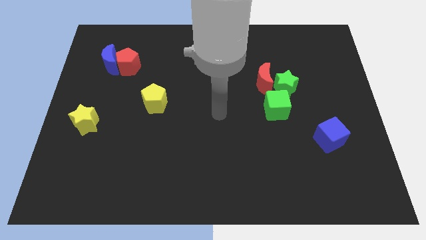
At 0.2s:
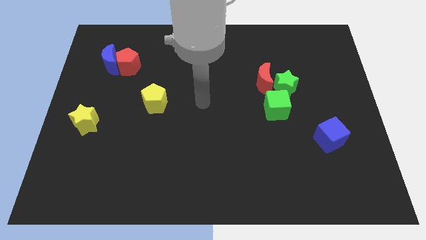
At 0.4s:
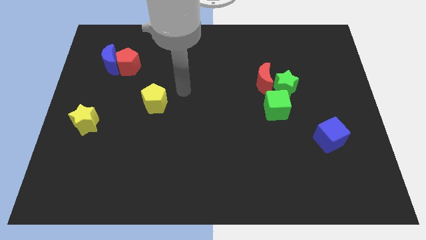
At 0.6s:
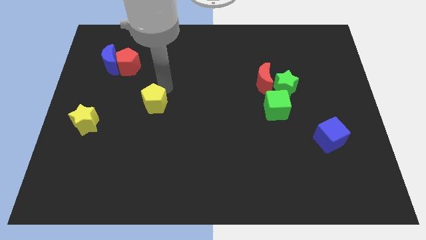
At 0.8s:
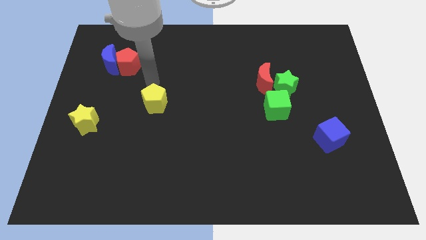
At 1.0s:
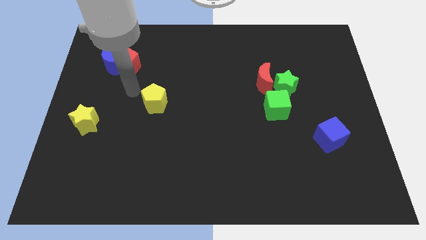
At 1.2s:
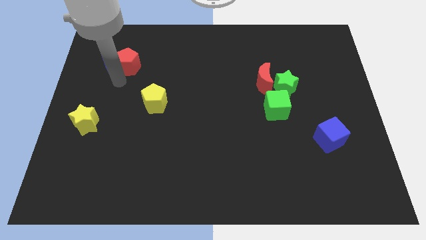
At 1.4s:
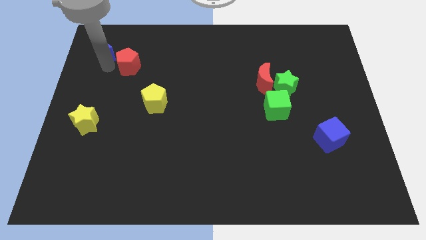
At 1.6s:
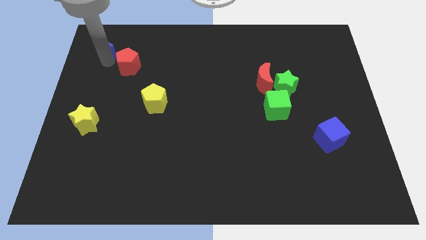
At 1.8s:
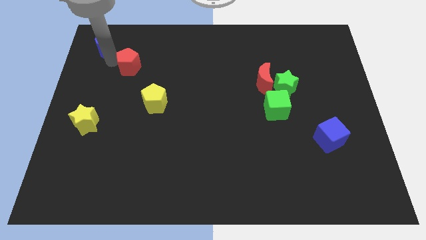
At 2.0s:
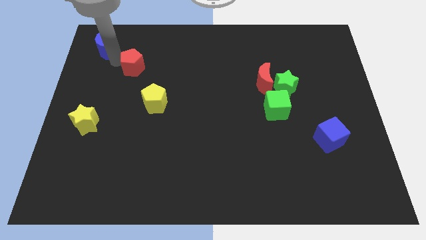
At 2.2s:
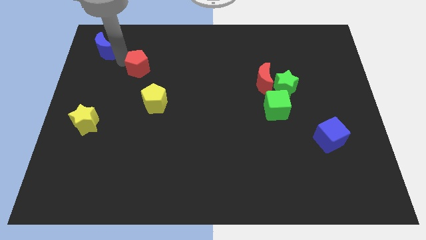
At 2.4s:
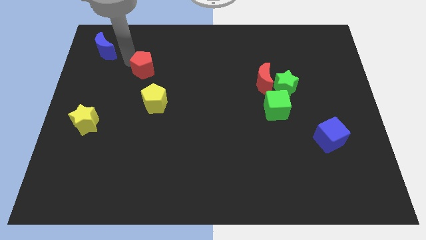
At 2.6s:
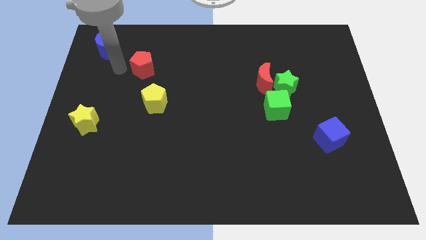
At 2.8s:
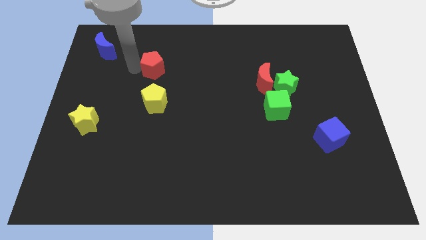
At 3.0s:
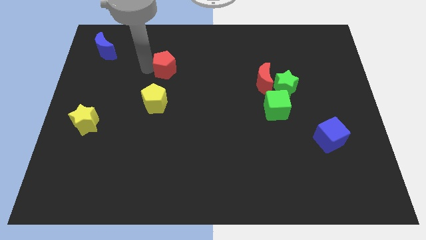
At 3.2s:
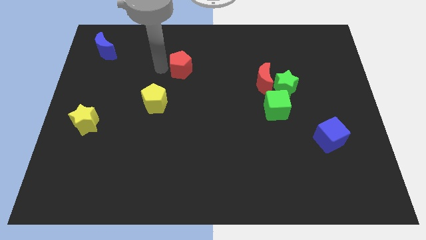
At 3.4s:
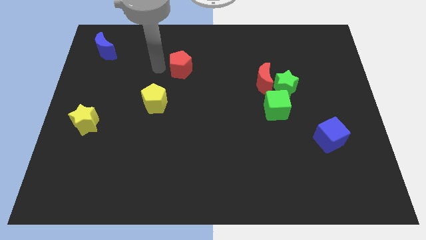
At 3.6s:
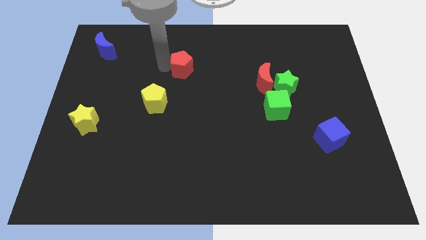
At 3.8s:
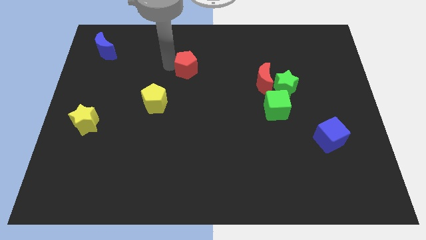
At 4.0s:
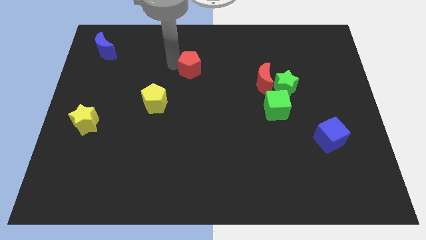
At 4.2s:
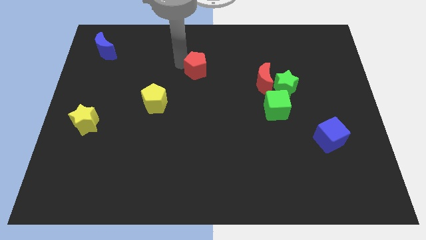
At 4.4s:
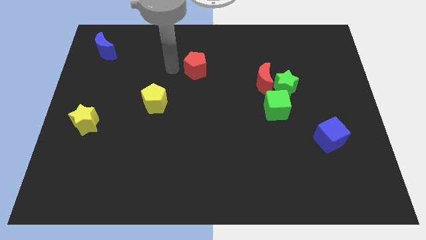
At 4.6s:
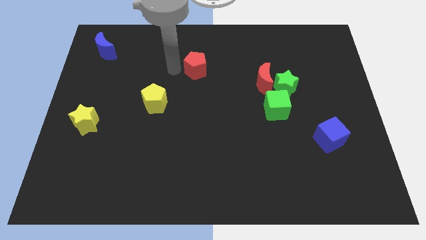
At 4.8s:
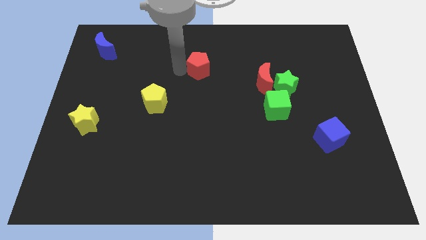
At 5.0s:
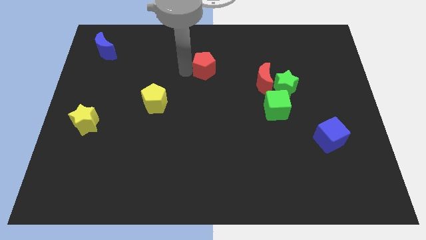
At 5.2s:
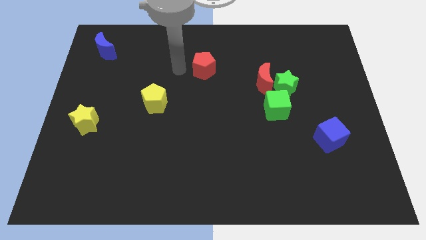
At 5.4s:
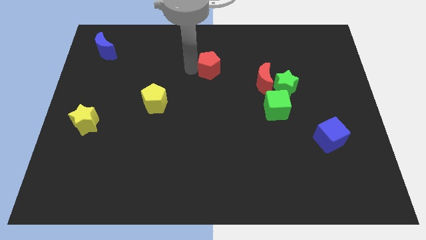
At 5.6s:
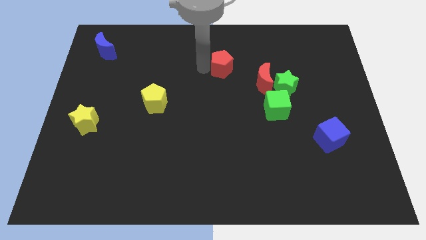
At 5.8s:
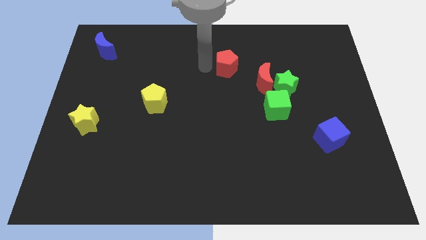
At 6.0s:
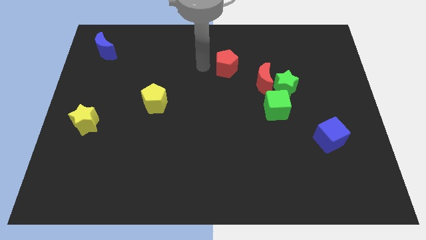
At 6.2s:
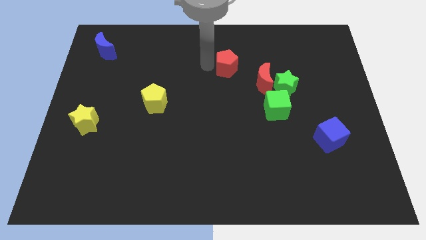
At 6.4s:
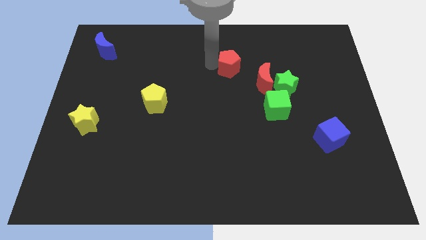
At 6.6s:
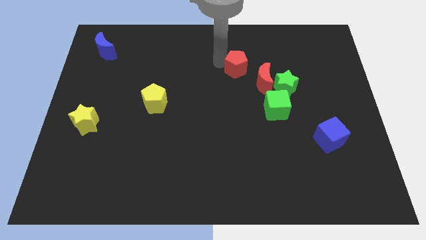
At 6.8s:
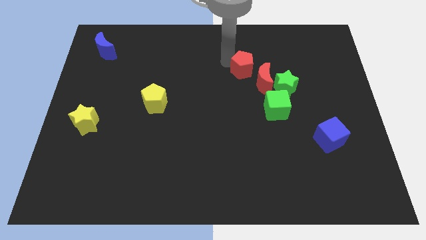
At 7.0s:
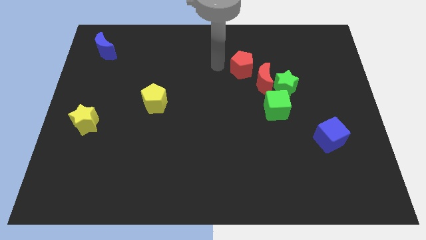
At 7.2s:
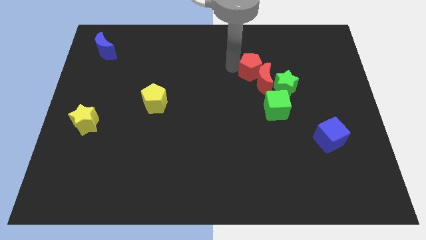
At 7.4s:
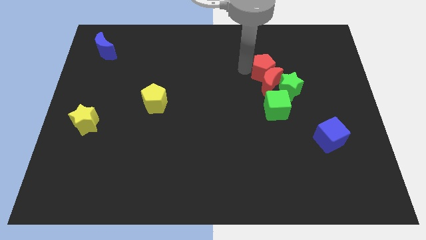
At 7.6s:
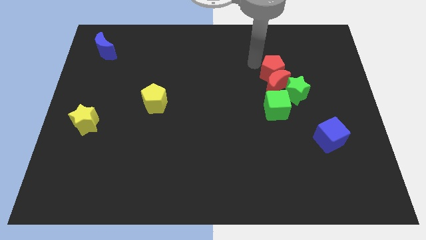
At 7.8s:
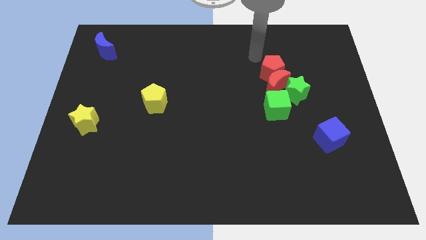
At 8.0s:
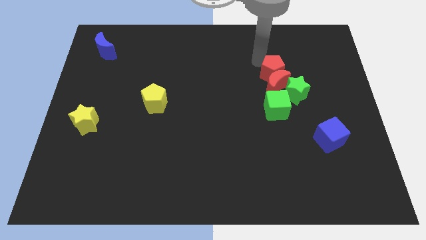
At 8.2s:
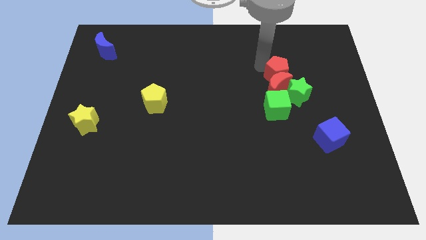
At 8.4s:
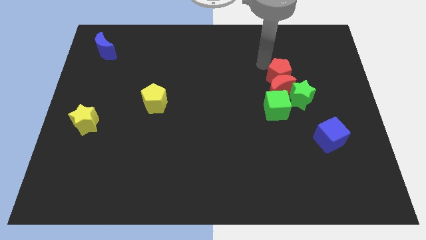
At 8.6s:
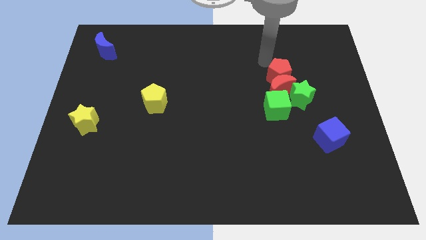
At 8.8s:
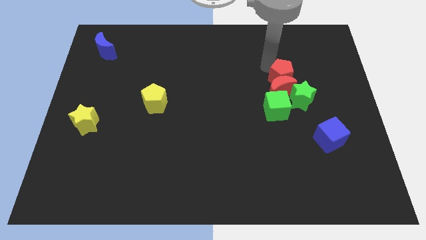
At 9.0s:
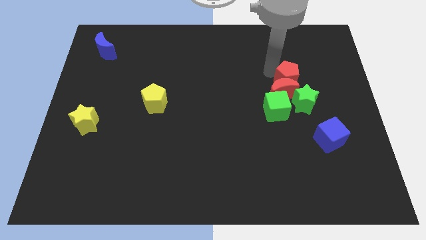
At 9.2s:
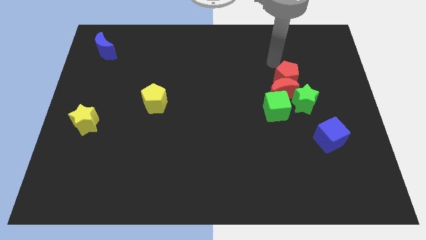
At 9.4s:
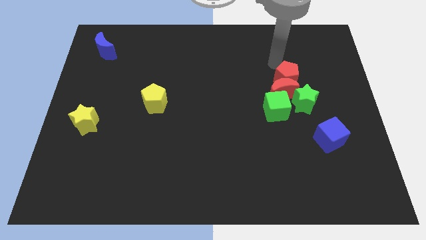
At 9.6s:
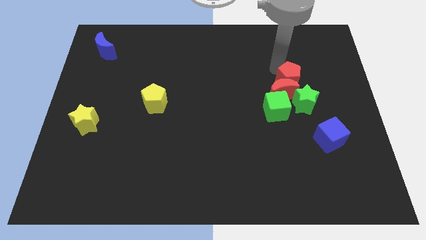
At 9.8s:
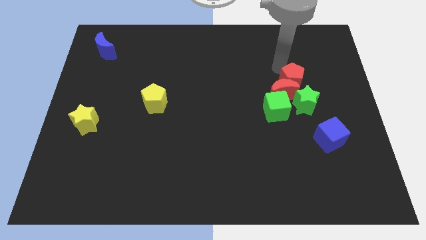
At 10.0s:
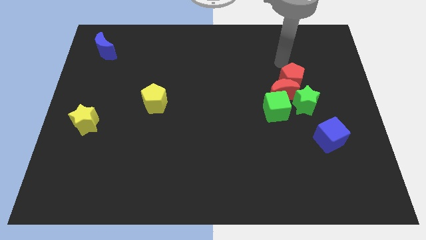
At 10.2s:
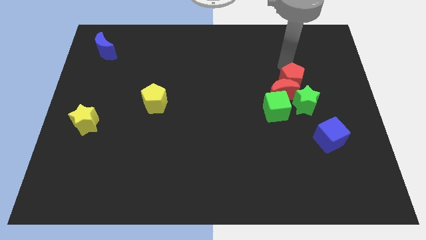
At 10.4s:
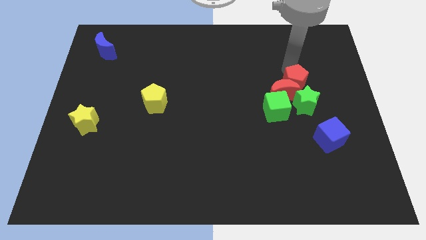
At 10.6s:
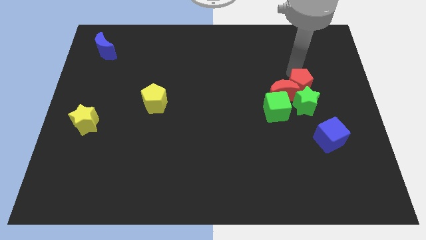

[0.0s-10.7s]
put the red pentagon next to the green star

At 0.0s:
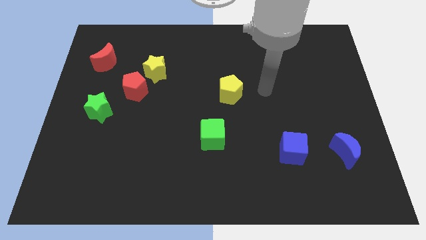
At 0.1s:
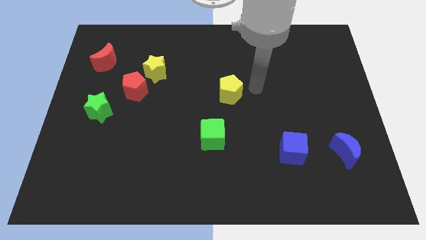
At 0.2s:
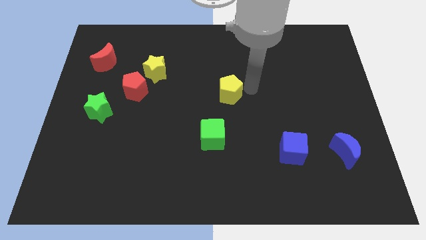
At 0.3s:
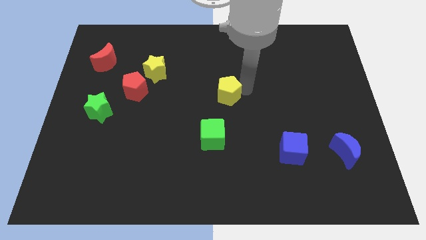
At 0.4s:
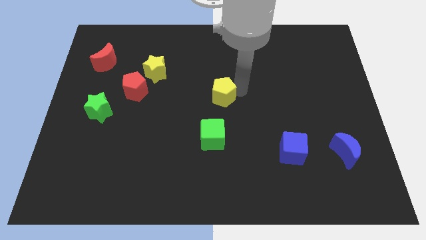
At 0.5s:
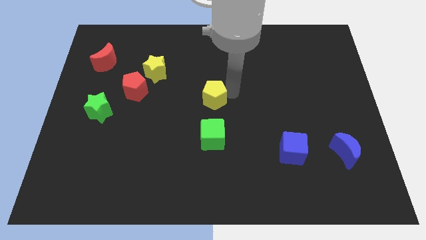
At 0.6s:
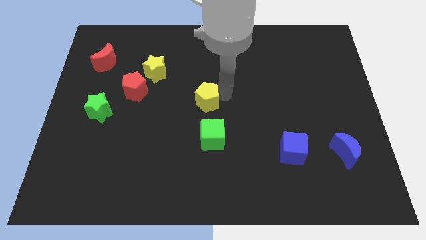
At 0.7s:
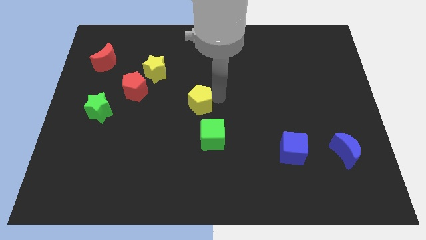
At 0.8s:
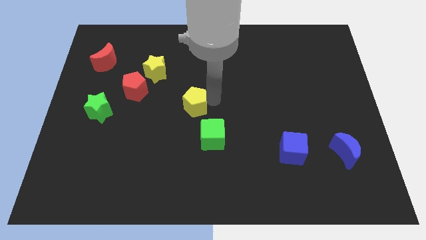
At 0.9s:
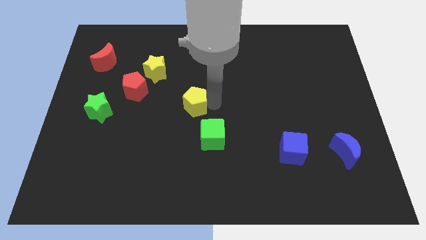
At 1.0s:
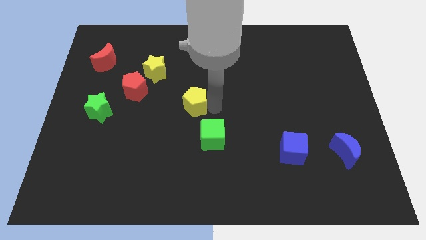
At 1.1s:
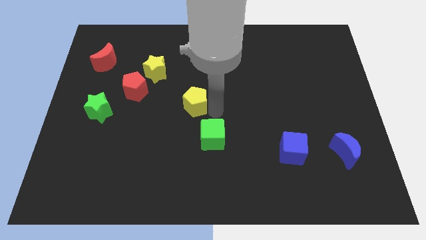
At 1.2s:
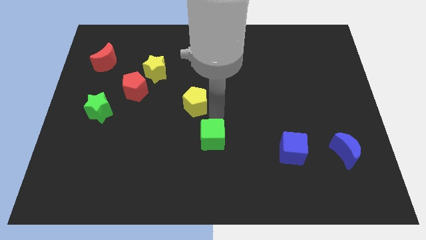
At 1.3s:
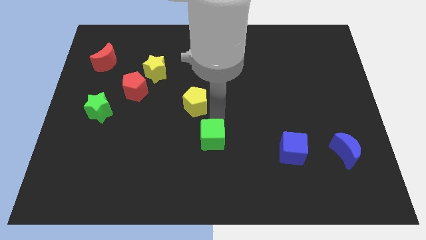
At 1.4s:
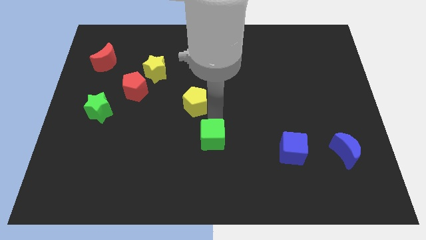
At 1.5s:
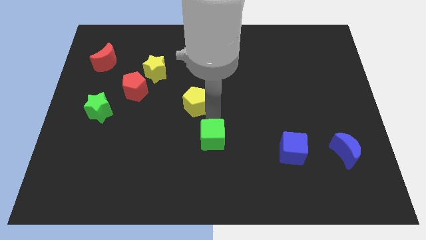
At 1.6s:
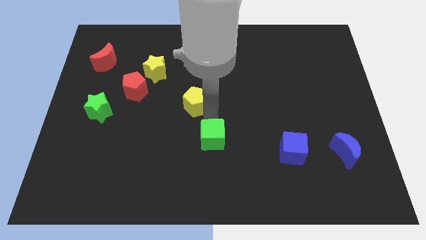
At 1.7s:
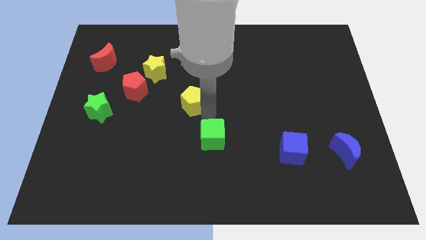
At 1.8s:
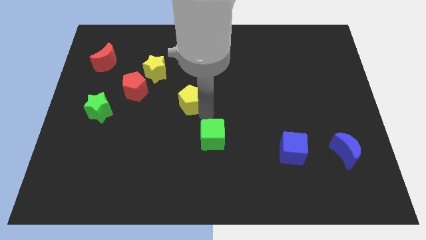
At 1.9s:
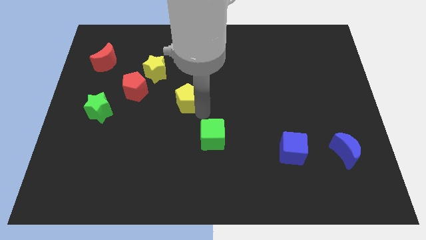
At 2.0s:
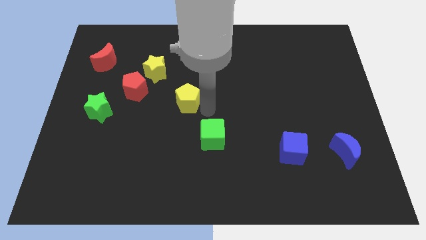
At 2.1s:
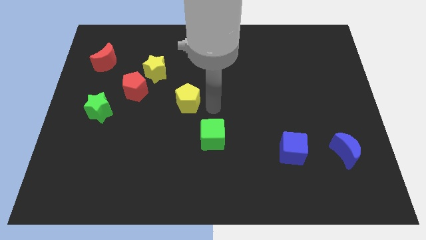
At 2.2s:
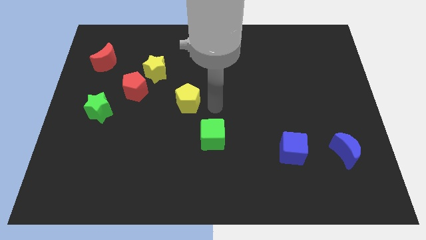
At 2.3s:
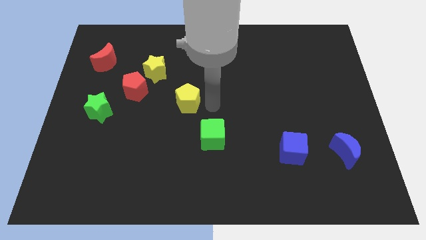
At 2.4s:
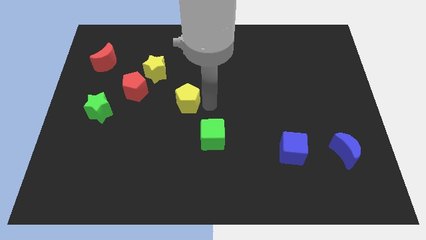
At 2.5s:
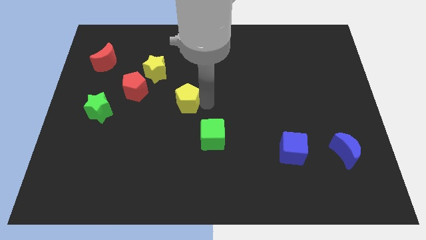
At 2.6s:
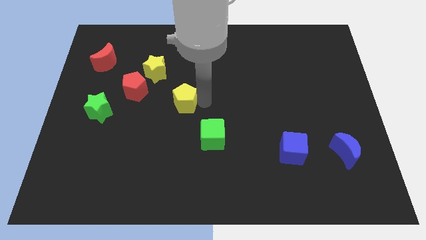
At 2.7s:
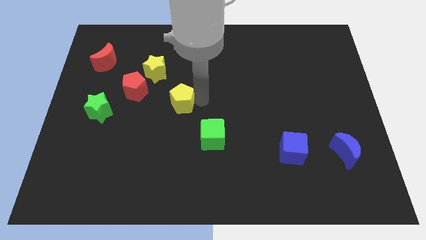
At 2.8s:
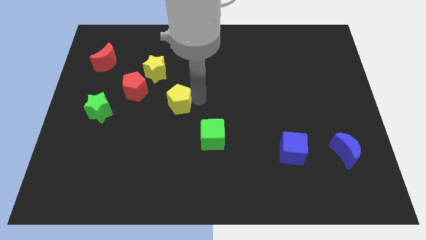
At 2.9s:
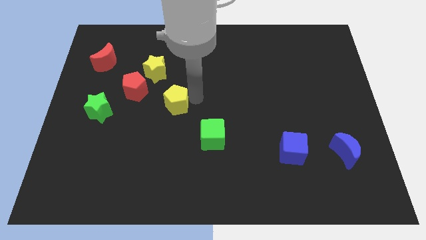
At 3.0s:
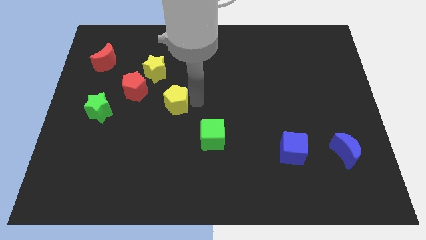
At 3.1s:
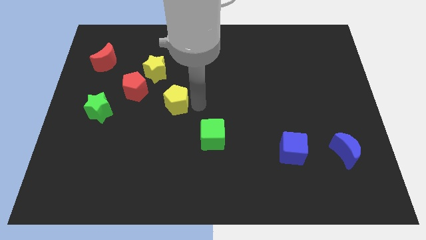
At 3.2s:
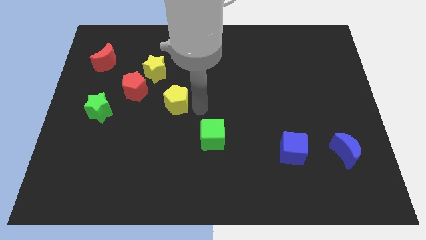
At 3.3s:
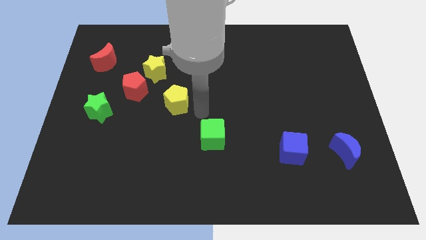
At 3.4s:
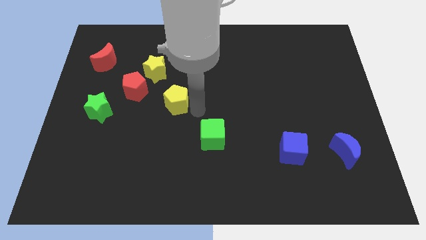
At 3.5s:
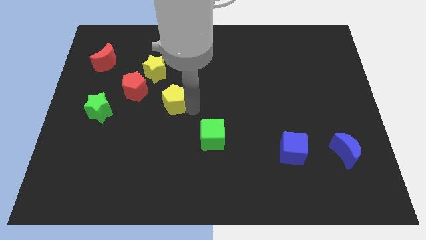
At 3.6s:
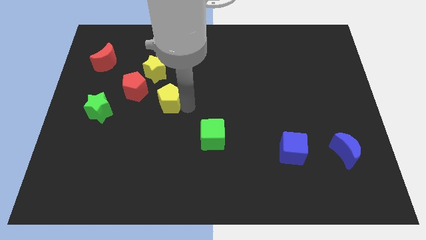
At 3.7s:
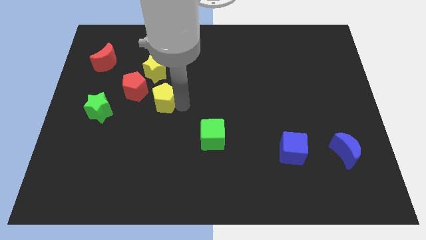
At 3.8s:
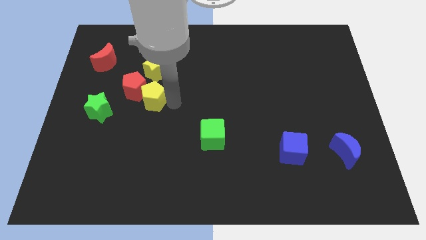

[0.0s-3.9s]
put the yellow pentagon to the red pentagon
